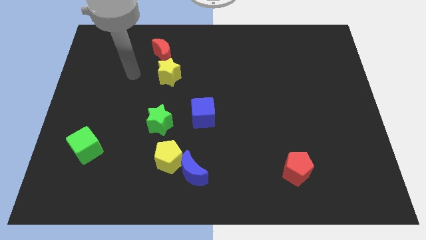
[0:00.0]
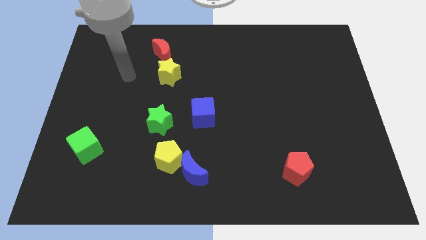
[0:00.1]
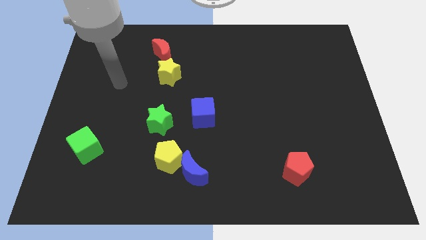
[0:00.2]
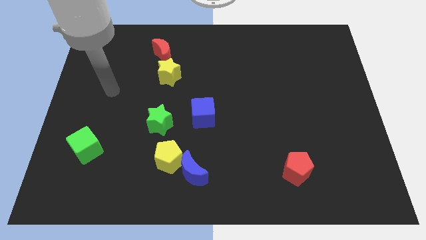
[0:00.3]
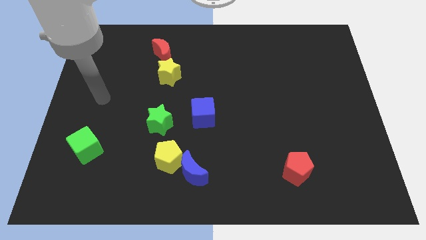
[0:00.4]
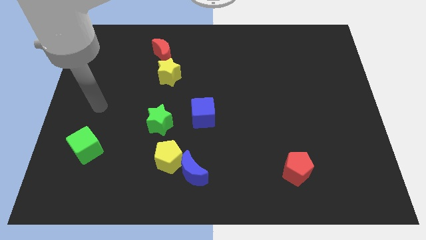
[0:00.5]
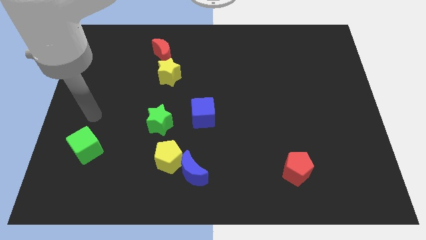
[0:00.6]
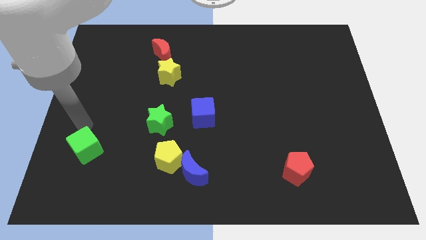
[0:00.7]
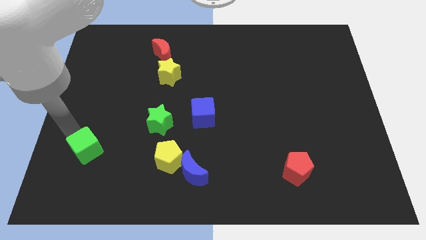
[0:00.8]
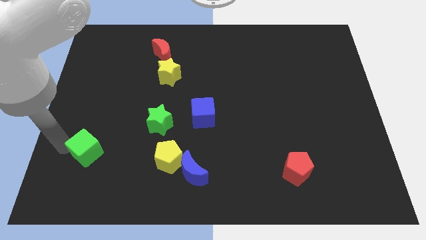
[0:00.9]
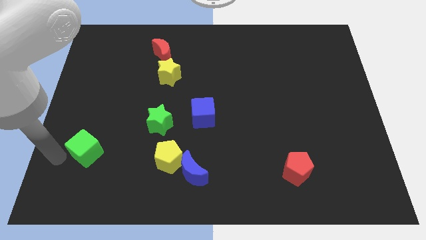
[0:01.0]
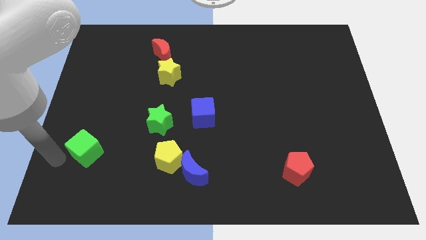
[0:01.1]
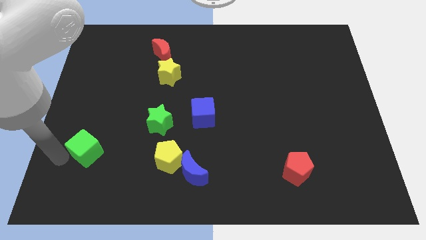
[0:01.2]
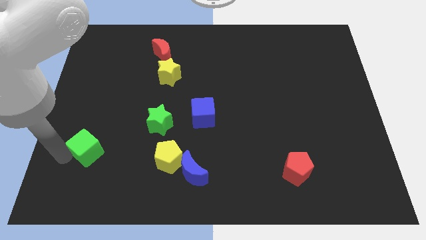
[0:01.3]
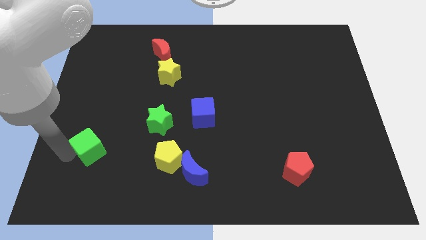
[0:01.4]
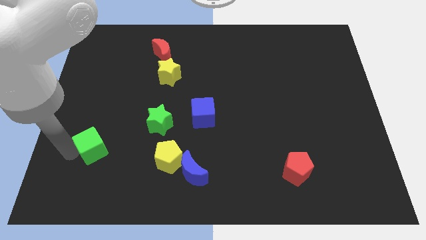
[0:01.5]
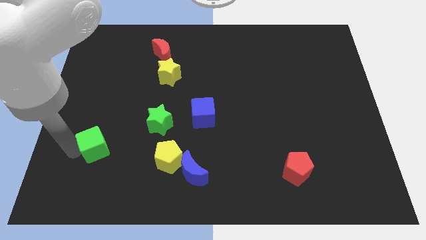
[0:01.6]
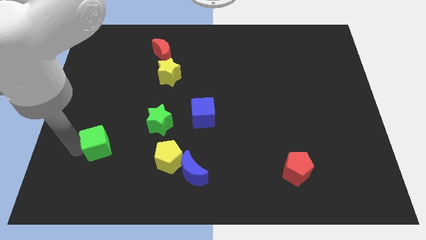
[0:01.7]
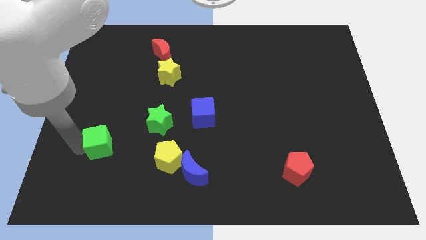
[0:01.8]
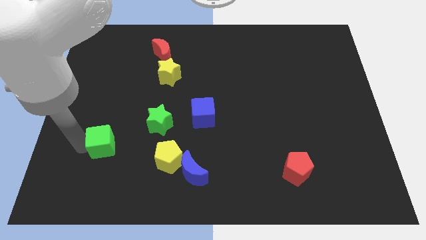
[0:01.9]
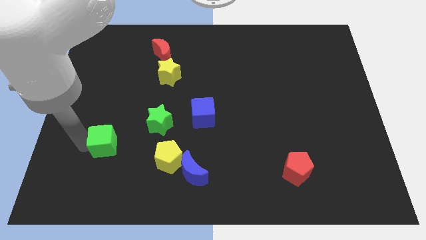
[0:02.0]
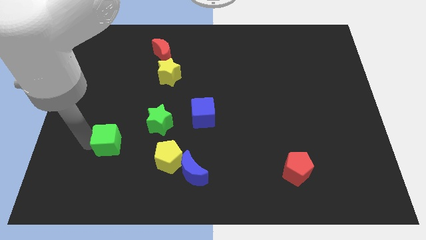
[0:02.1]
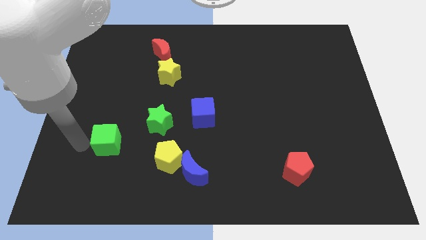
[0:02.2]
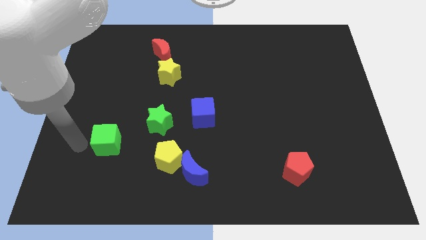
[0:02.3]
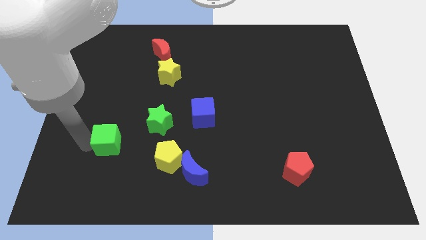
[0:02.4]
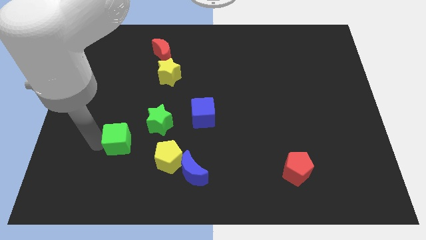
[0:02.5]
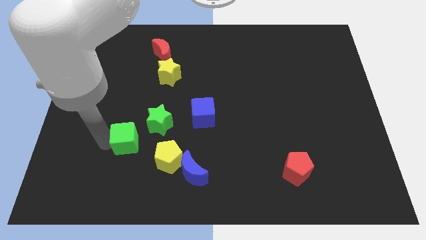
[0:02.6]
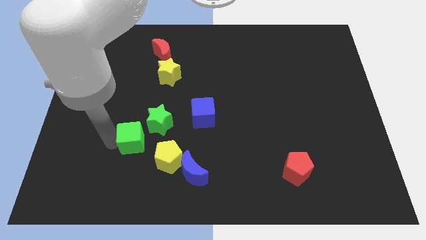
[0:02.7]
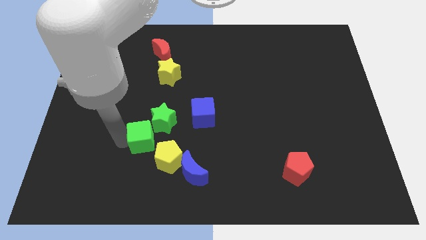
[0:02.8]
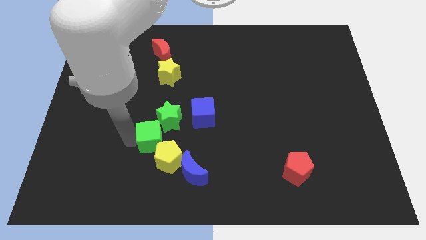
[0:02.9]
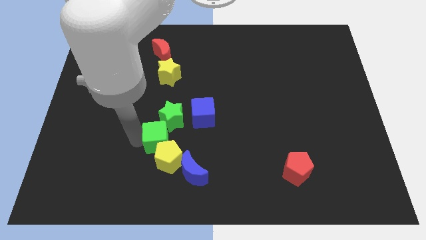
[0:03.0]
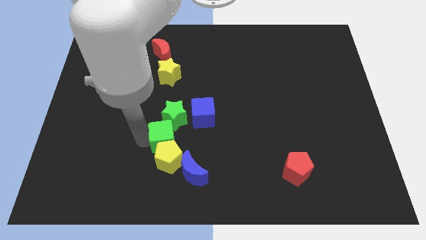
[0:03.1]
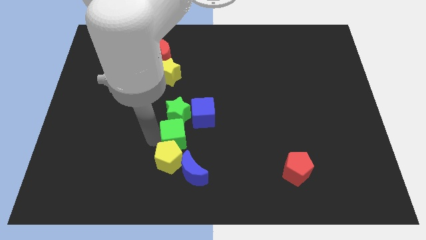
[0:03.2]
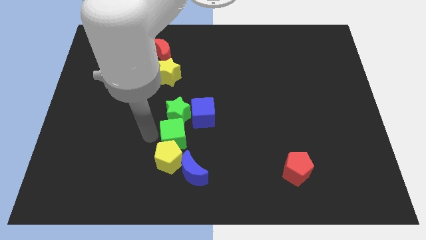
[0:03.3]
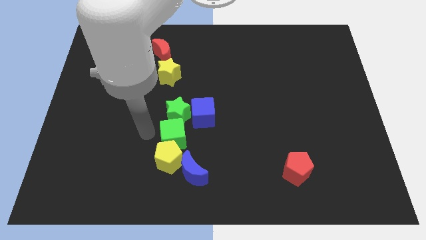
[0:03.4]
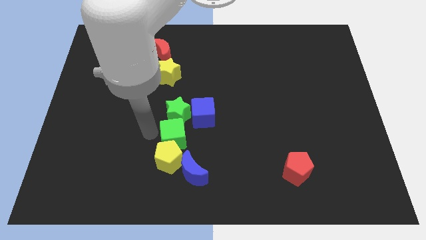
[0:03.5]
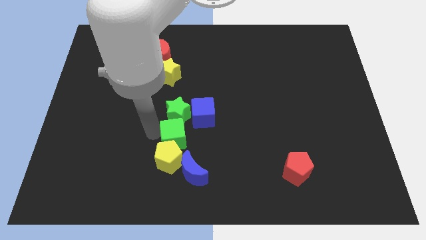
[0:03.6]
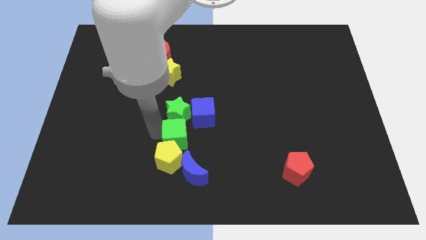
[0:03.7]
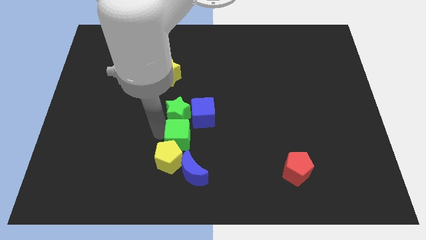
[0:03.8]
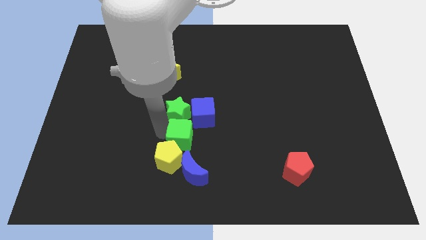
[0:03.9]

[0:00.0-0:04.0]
move the green cube to the right

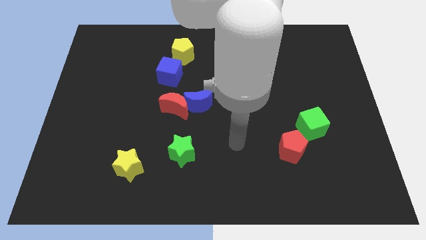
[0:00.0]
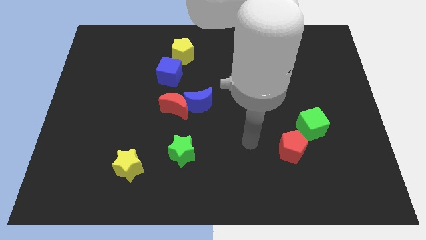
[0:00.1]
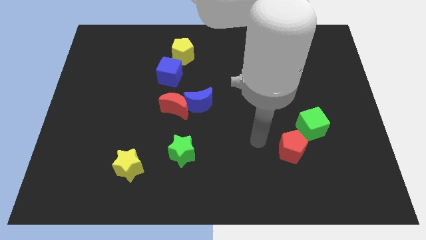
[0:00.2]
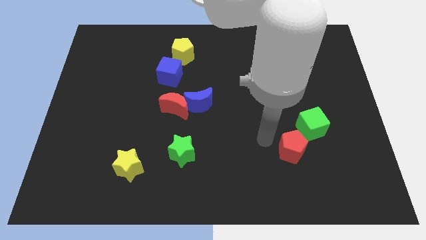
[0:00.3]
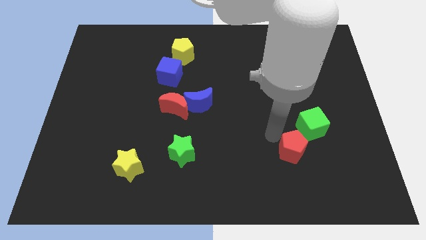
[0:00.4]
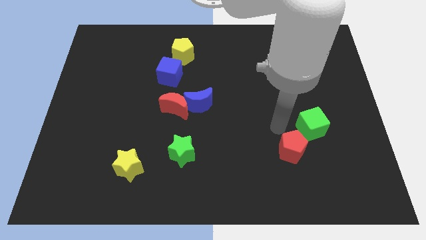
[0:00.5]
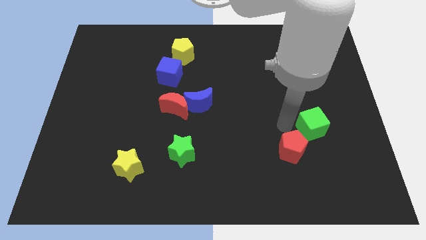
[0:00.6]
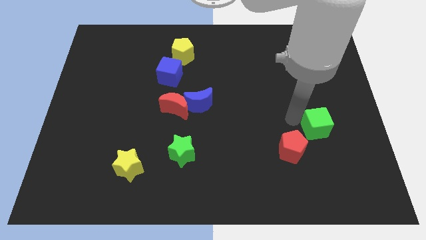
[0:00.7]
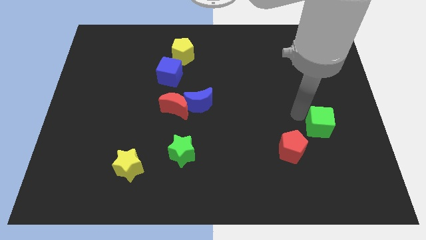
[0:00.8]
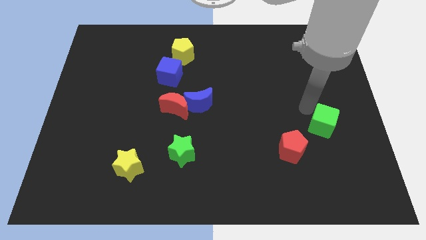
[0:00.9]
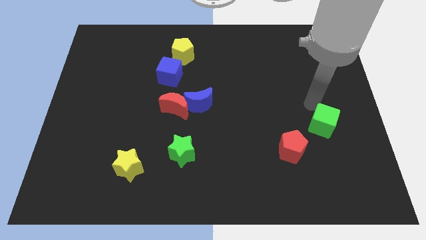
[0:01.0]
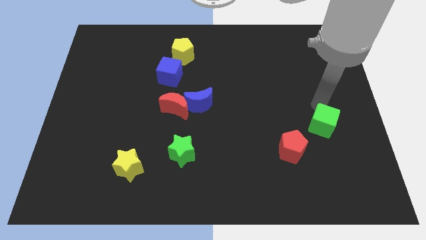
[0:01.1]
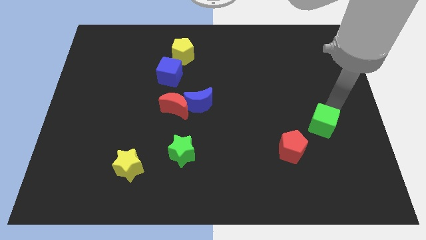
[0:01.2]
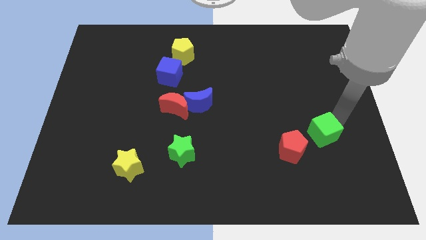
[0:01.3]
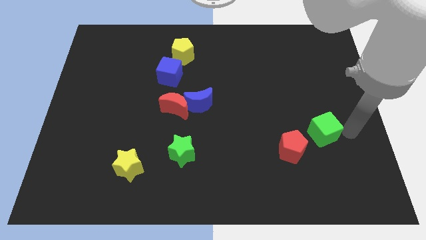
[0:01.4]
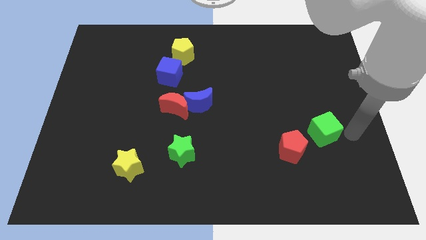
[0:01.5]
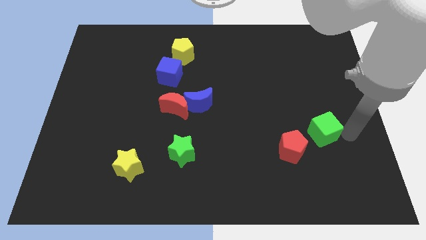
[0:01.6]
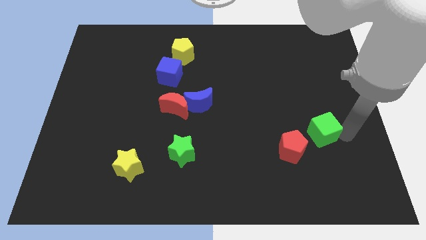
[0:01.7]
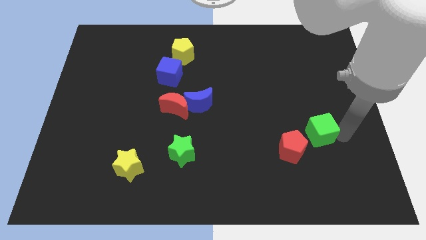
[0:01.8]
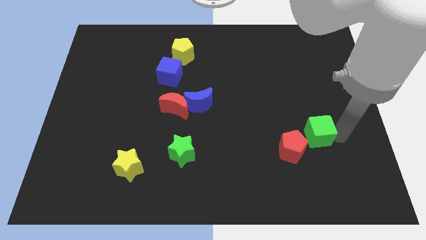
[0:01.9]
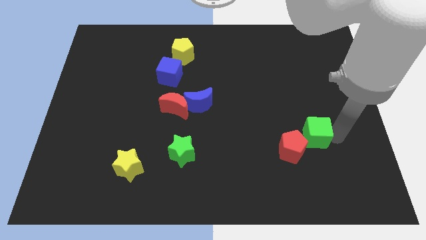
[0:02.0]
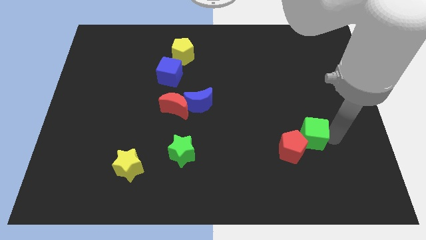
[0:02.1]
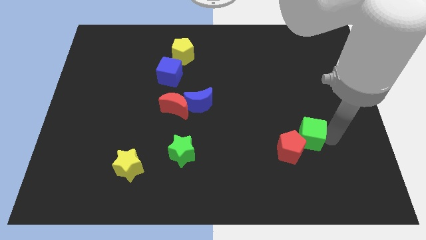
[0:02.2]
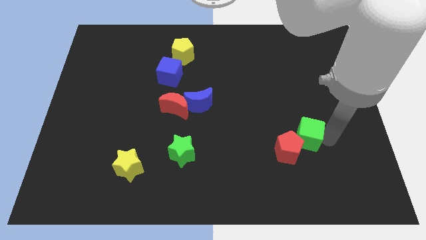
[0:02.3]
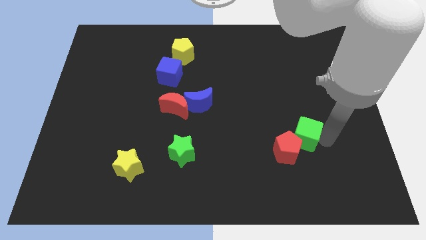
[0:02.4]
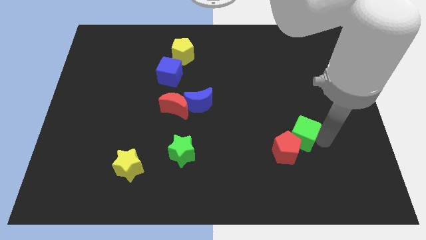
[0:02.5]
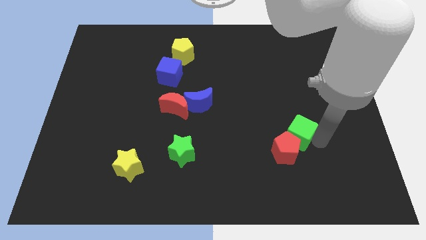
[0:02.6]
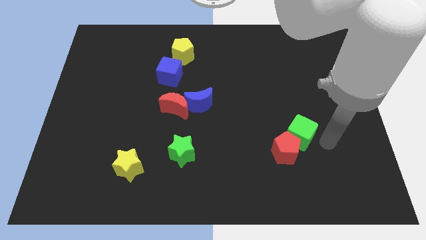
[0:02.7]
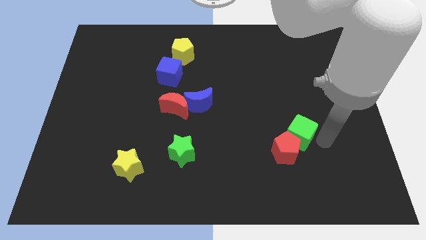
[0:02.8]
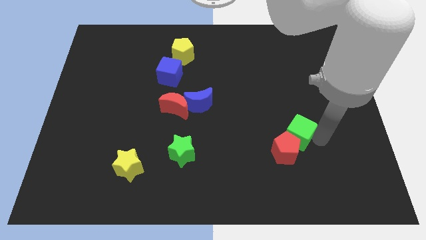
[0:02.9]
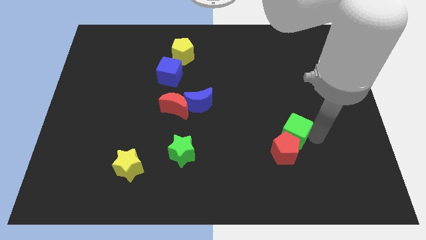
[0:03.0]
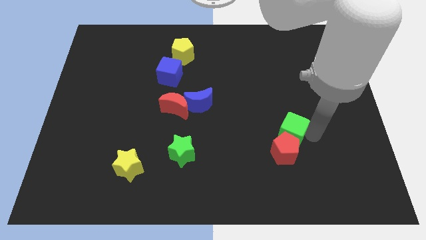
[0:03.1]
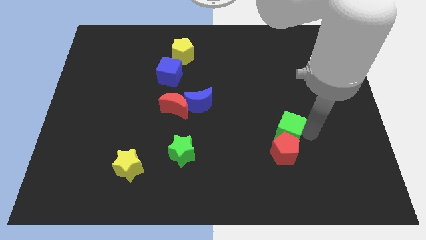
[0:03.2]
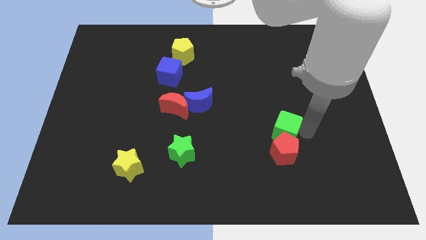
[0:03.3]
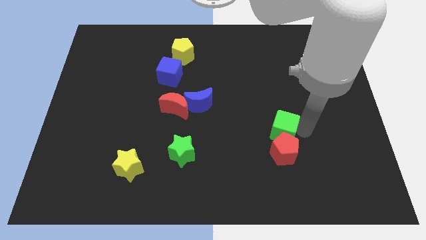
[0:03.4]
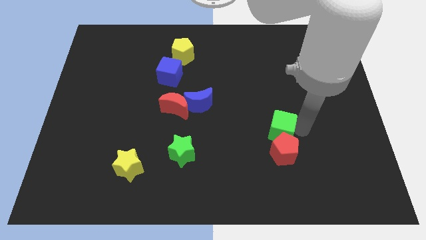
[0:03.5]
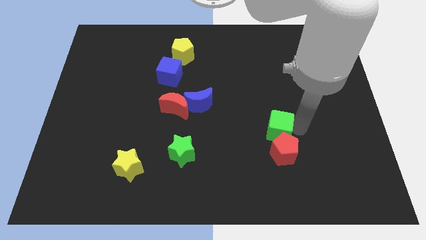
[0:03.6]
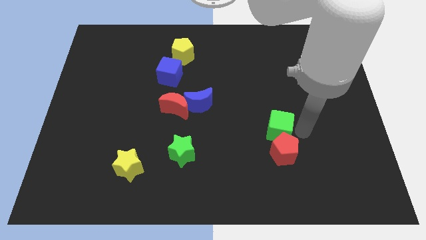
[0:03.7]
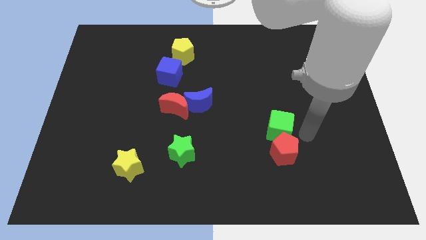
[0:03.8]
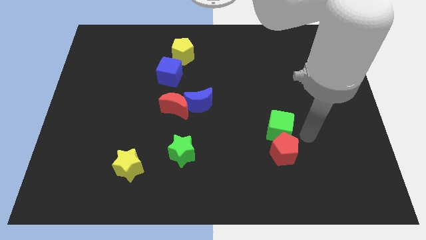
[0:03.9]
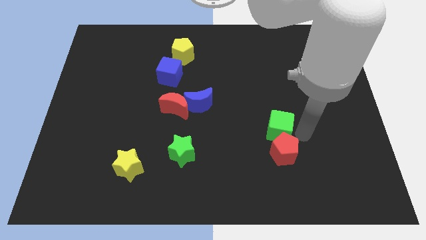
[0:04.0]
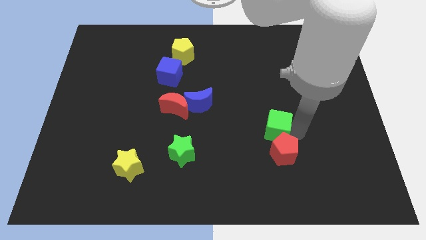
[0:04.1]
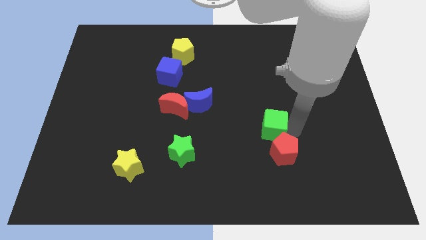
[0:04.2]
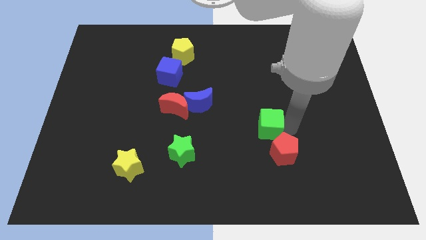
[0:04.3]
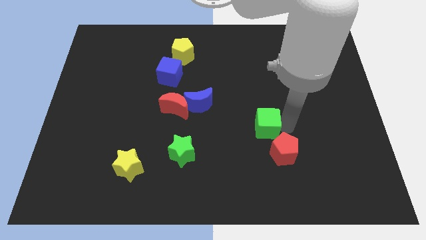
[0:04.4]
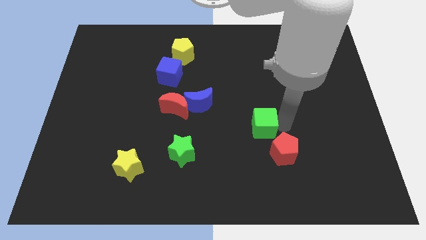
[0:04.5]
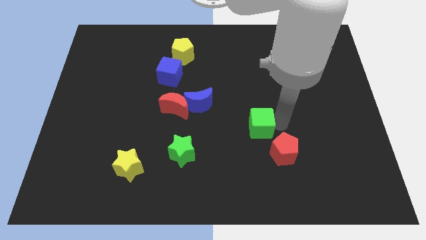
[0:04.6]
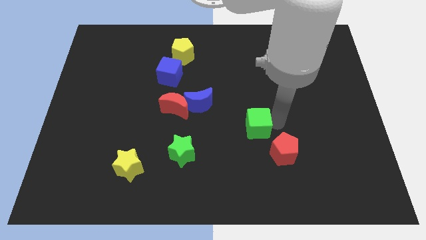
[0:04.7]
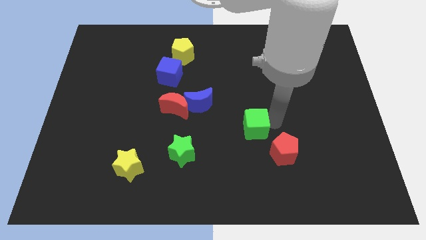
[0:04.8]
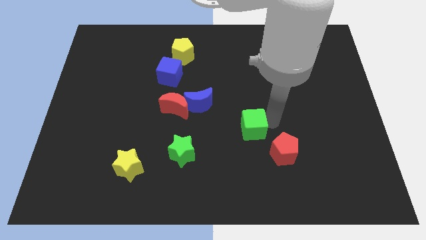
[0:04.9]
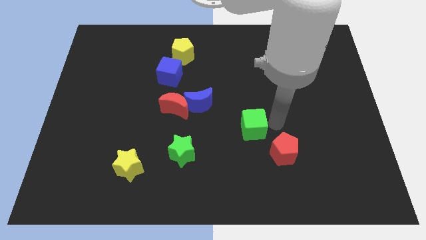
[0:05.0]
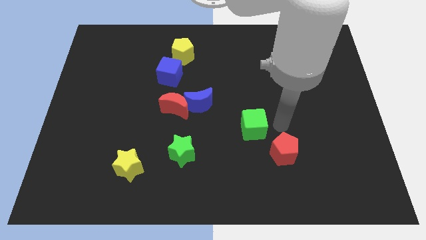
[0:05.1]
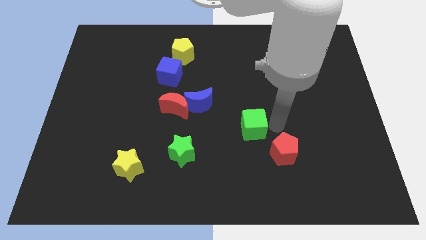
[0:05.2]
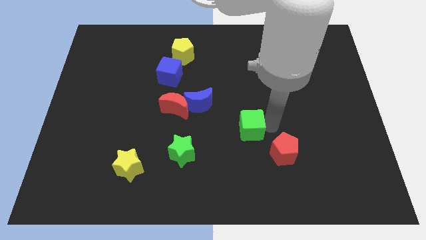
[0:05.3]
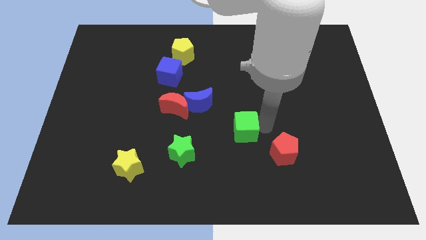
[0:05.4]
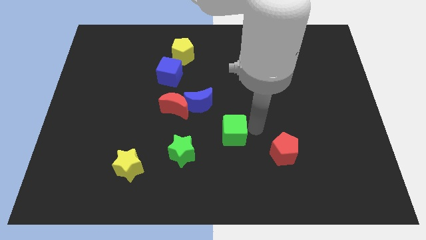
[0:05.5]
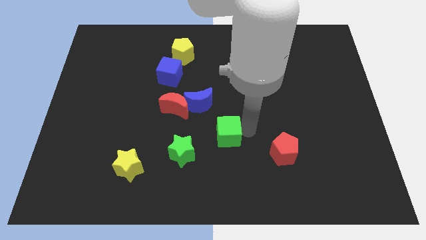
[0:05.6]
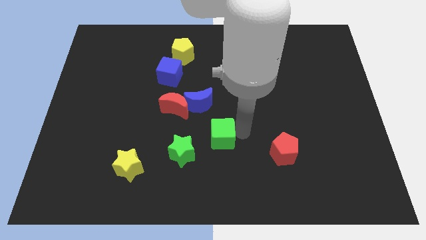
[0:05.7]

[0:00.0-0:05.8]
push the green cube to the left
